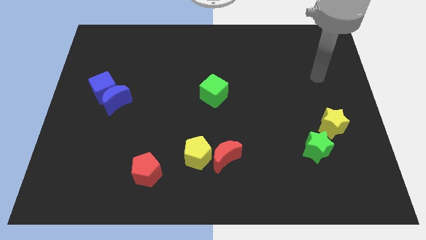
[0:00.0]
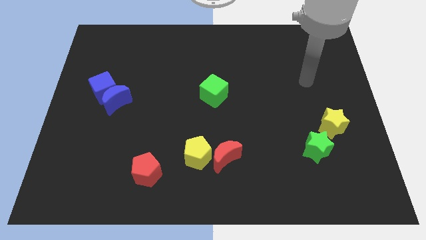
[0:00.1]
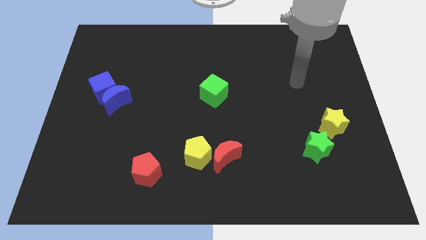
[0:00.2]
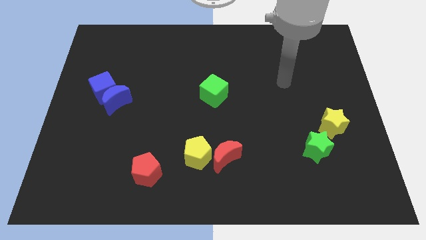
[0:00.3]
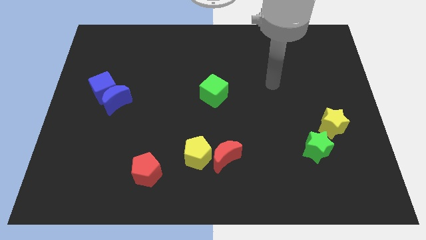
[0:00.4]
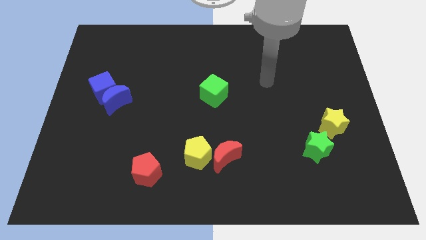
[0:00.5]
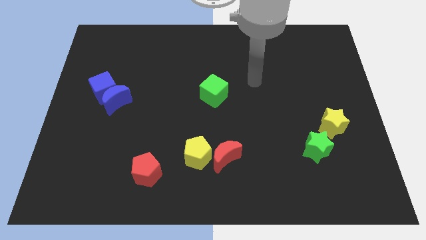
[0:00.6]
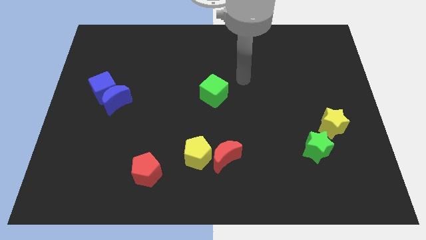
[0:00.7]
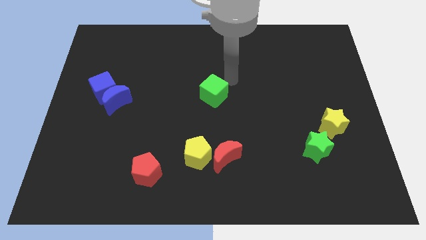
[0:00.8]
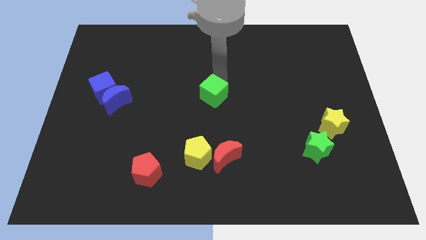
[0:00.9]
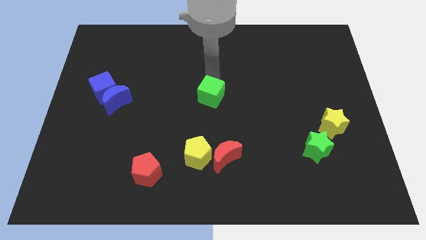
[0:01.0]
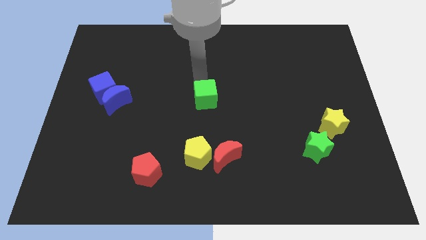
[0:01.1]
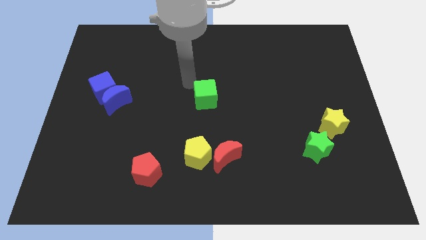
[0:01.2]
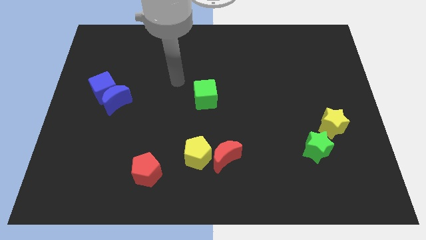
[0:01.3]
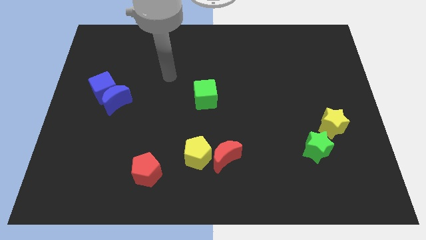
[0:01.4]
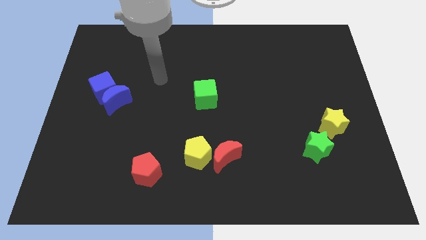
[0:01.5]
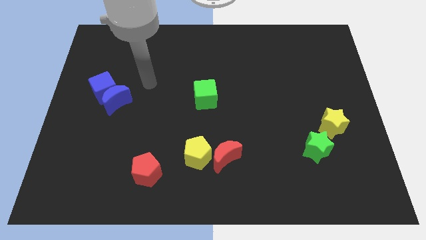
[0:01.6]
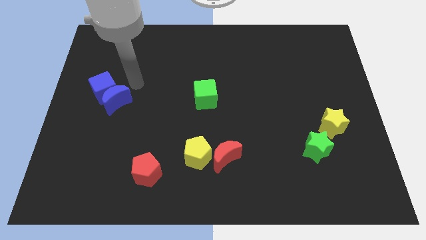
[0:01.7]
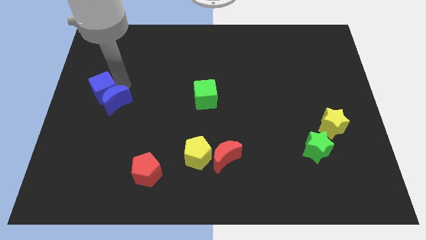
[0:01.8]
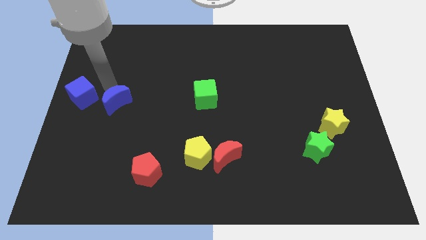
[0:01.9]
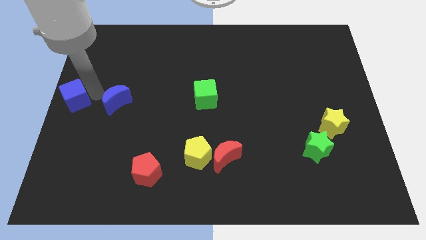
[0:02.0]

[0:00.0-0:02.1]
pull the blue moon apart from the blue cube

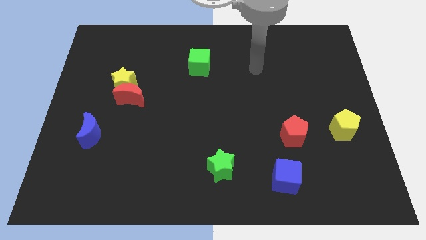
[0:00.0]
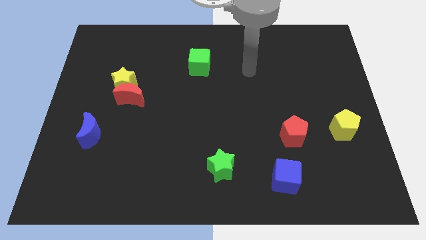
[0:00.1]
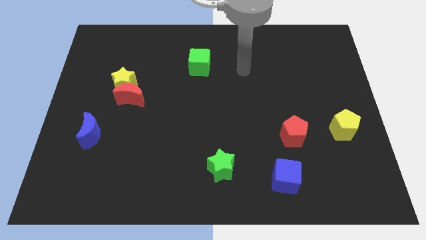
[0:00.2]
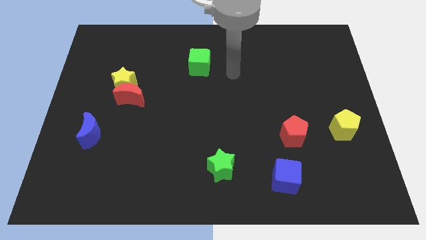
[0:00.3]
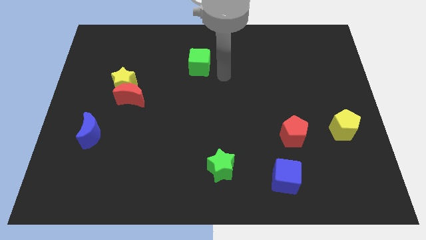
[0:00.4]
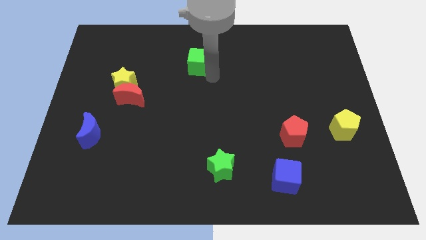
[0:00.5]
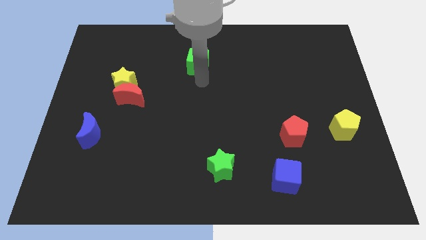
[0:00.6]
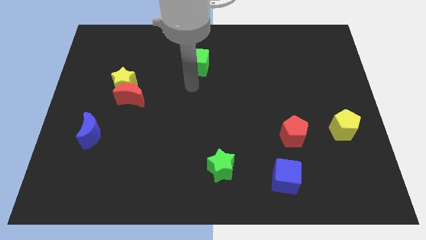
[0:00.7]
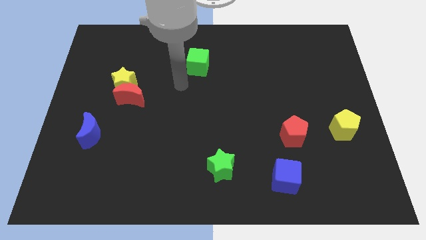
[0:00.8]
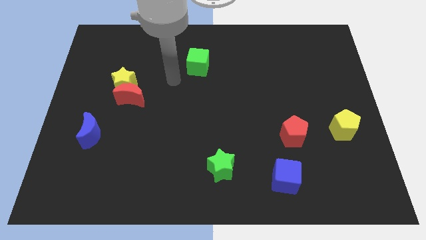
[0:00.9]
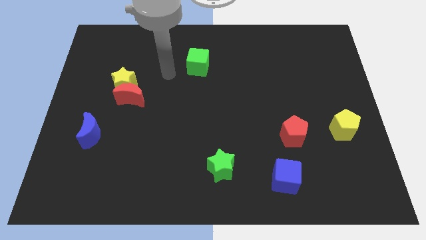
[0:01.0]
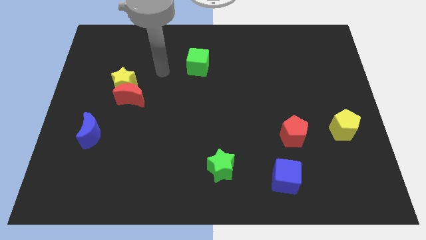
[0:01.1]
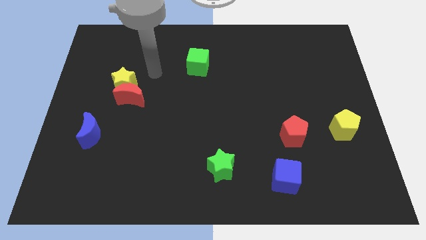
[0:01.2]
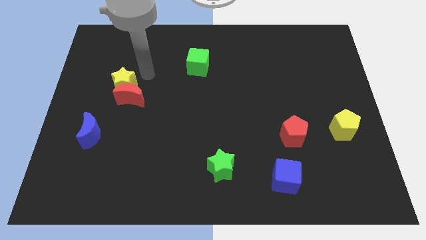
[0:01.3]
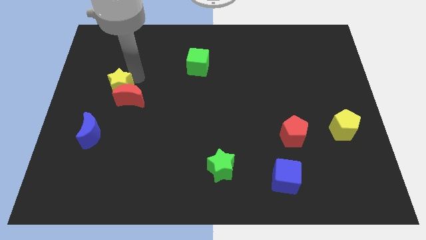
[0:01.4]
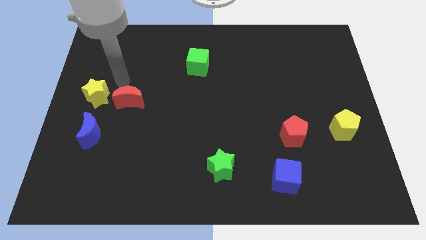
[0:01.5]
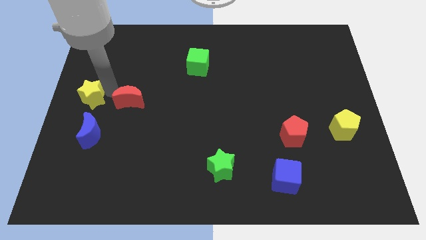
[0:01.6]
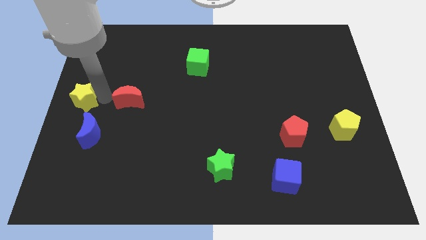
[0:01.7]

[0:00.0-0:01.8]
move the red moon away from the yellow star

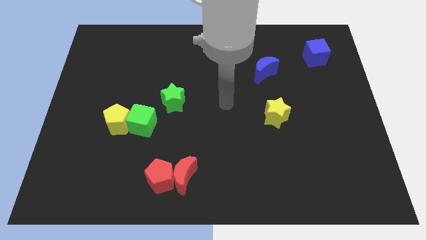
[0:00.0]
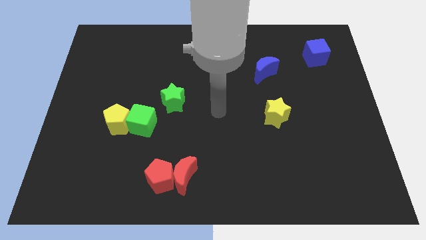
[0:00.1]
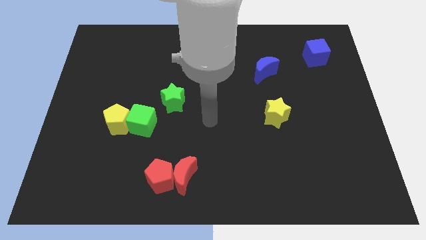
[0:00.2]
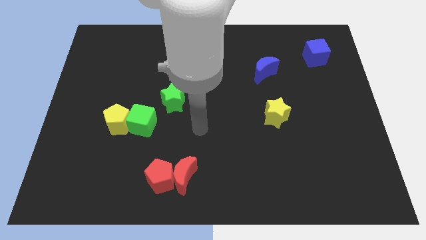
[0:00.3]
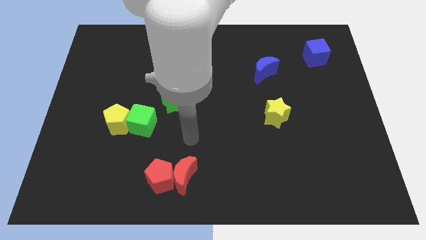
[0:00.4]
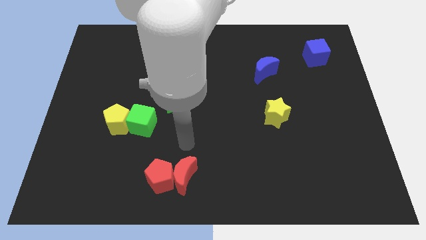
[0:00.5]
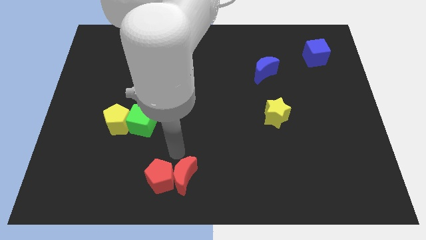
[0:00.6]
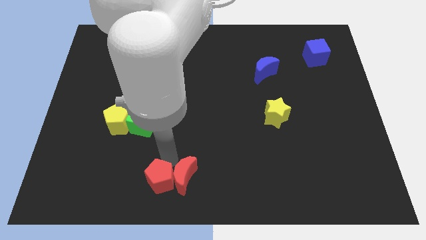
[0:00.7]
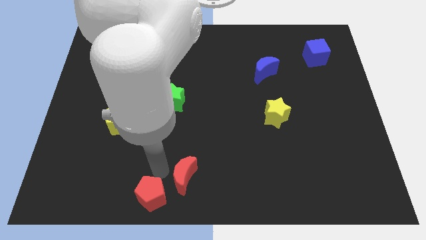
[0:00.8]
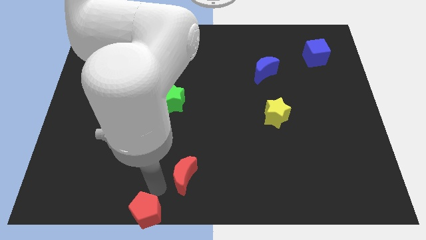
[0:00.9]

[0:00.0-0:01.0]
separate the red moon from the red pentagon

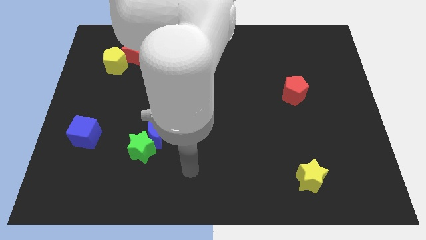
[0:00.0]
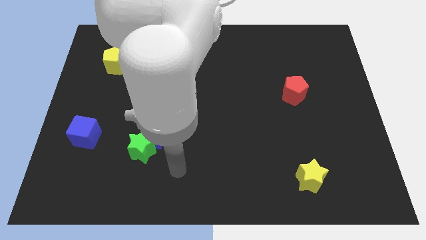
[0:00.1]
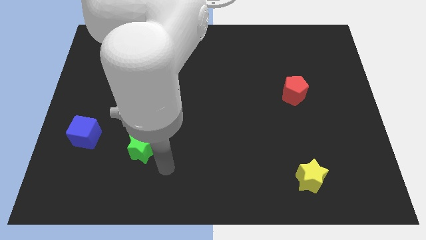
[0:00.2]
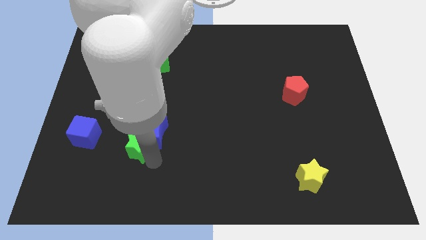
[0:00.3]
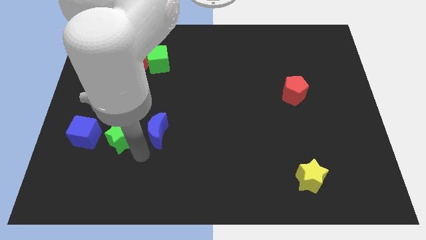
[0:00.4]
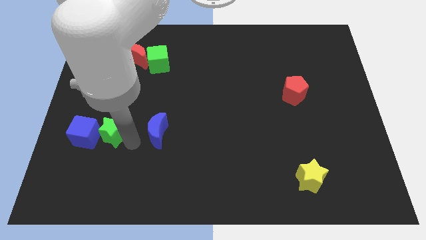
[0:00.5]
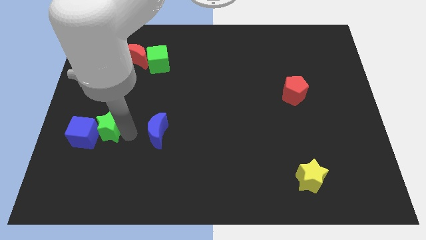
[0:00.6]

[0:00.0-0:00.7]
move the blue moon away from the green star

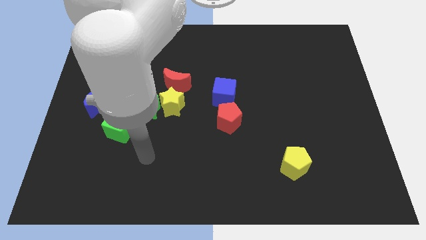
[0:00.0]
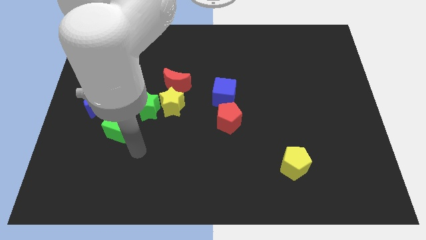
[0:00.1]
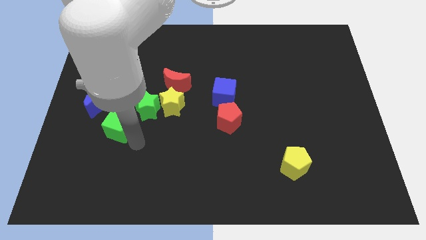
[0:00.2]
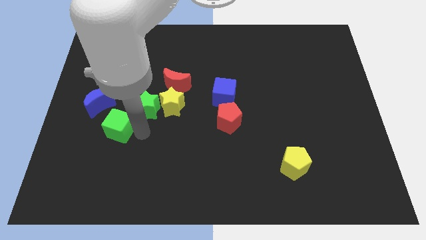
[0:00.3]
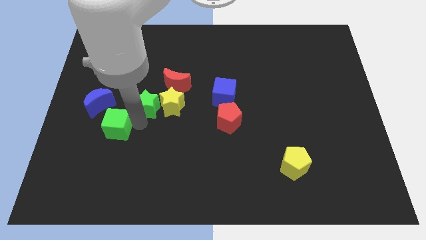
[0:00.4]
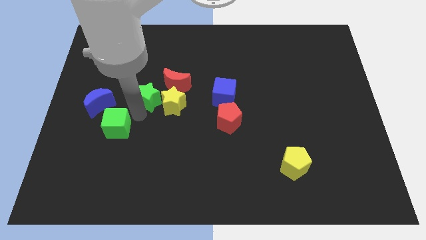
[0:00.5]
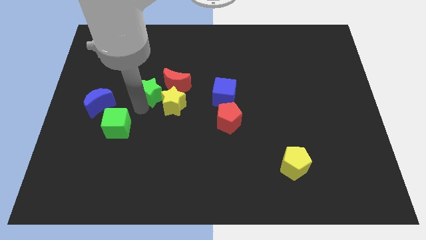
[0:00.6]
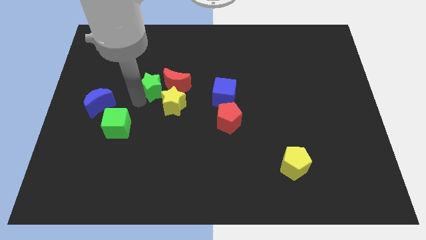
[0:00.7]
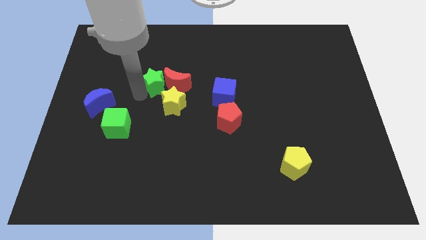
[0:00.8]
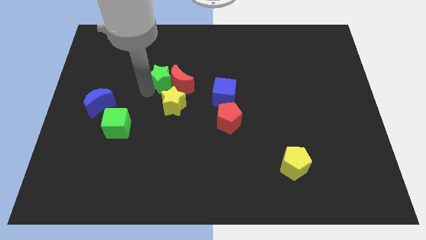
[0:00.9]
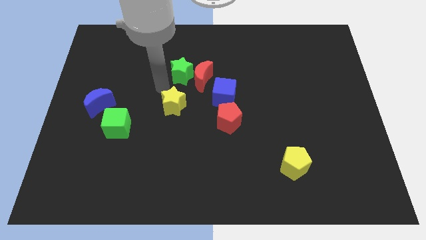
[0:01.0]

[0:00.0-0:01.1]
separate the yellow star from the green star and red moon

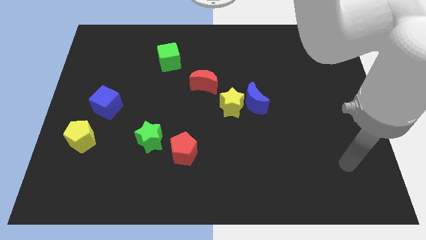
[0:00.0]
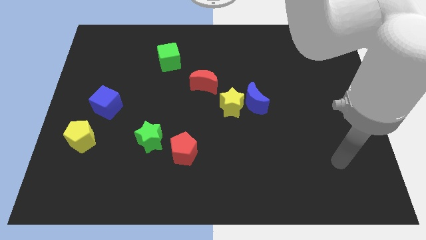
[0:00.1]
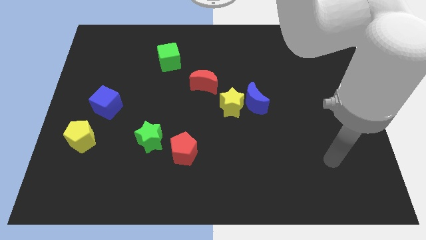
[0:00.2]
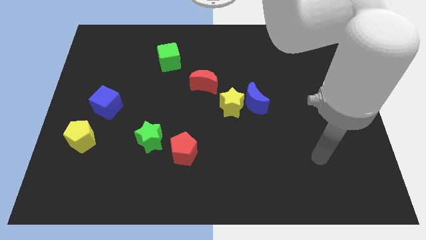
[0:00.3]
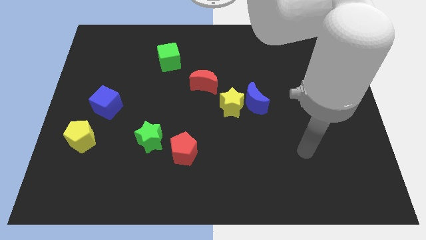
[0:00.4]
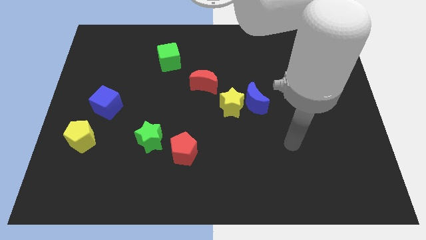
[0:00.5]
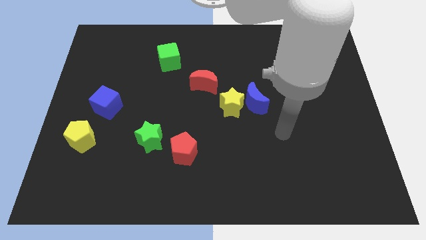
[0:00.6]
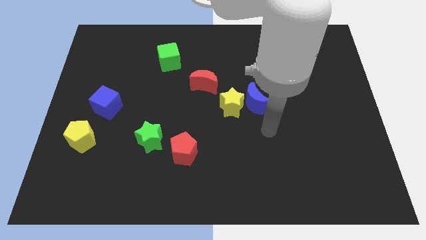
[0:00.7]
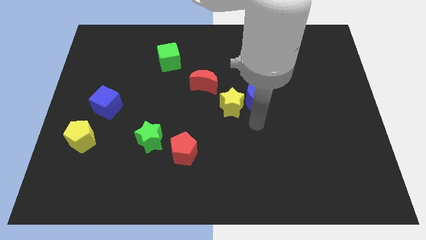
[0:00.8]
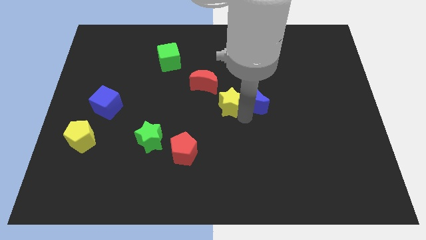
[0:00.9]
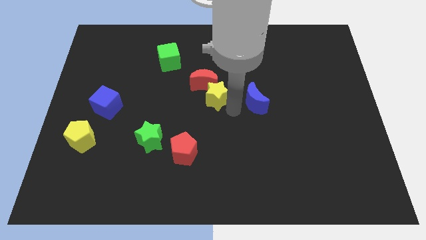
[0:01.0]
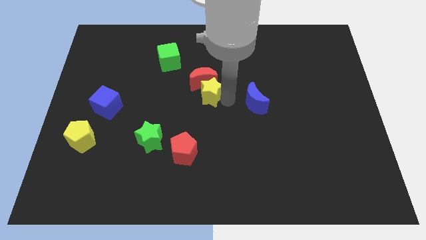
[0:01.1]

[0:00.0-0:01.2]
separate the blue moon from the yellow star

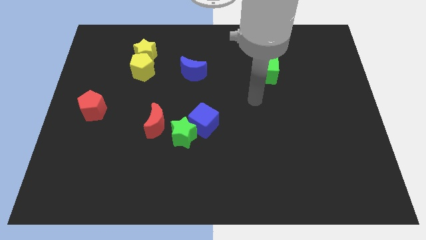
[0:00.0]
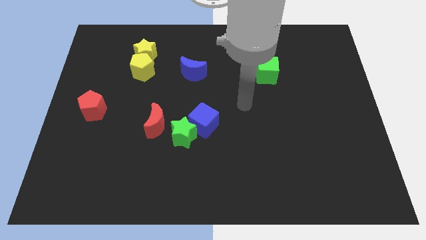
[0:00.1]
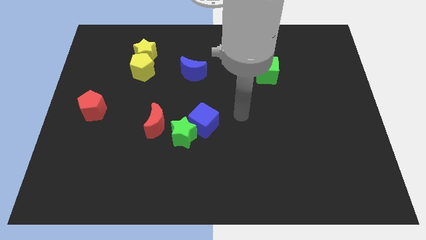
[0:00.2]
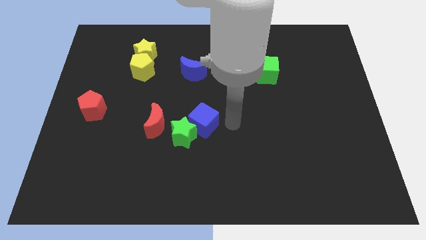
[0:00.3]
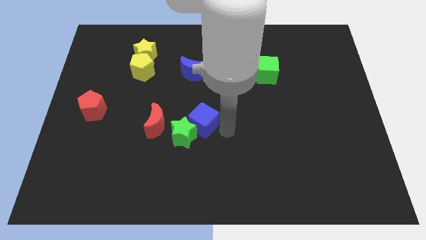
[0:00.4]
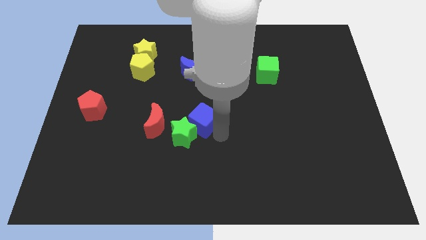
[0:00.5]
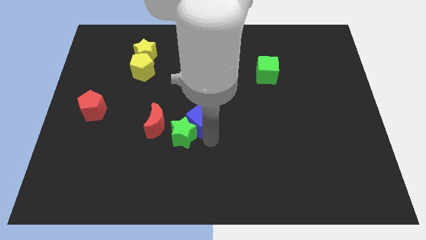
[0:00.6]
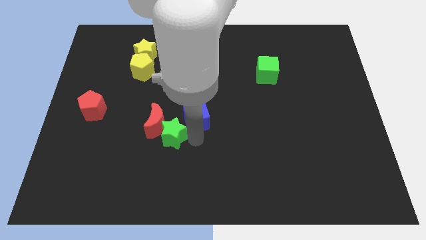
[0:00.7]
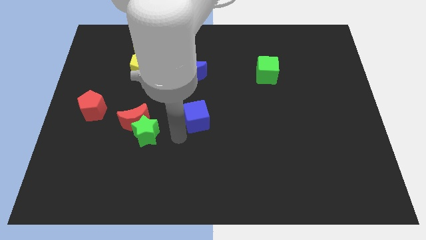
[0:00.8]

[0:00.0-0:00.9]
pull the blue cube apart from the green star

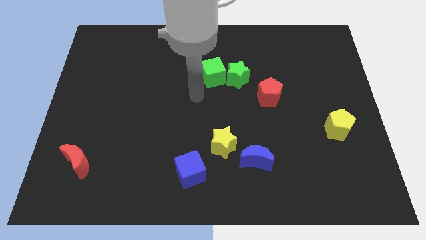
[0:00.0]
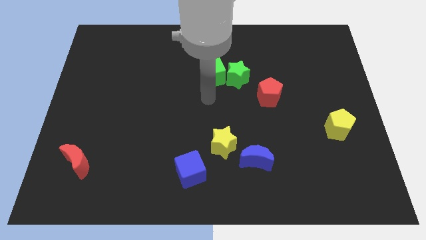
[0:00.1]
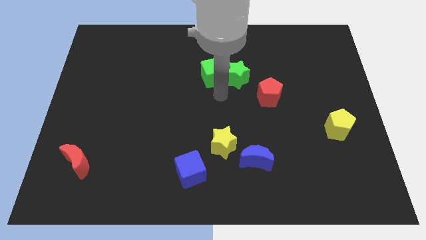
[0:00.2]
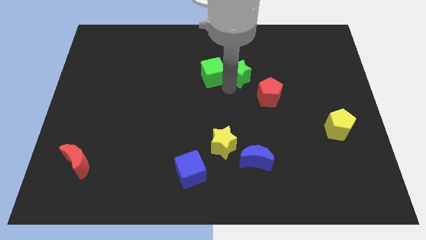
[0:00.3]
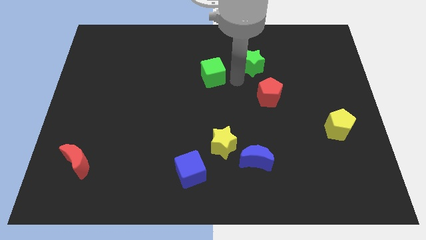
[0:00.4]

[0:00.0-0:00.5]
pull the green cube apart from the green star
